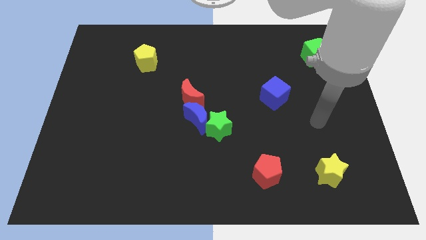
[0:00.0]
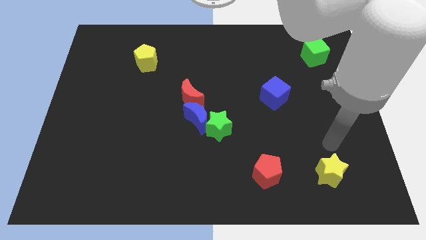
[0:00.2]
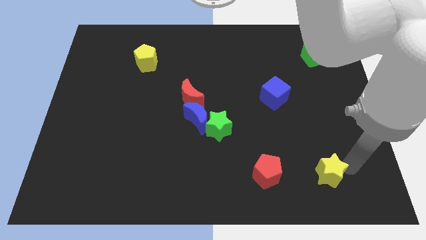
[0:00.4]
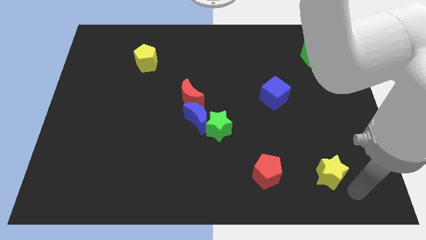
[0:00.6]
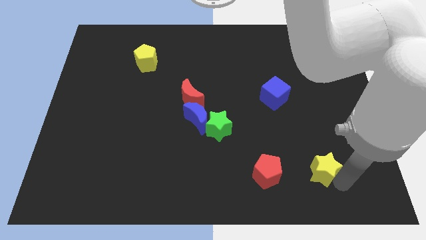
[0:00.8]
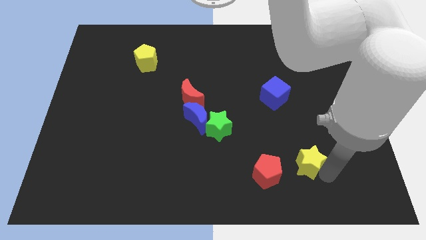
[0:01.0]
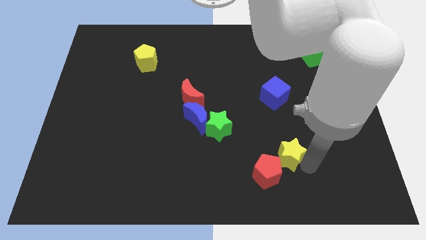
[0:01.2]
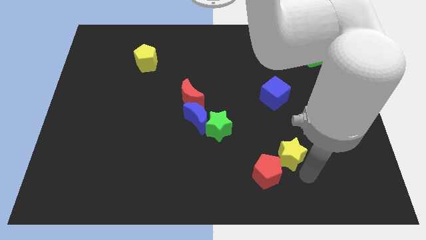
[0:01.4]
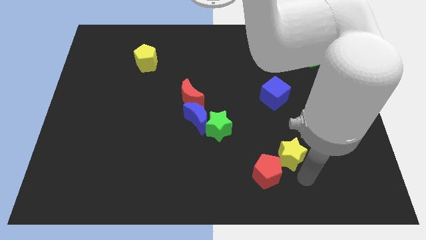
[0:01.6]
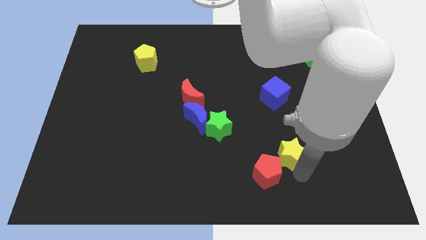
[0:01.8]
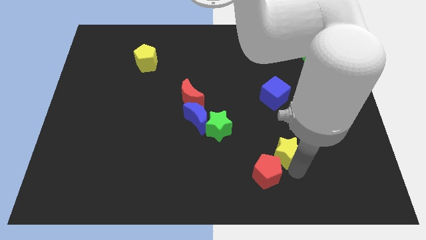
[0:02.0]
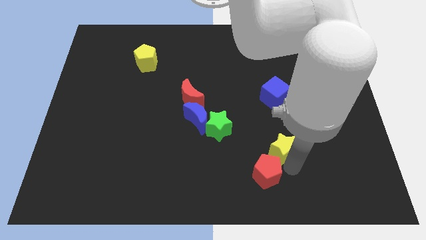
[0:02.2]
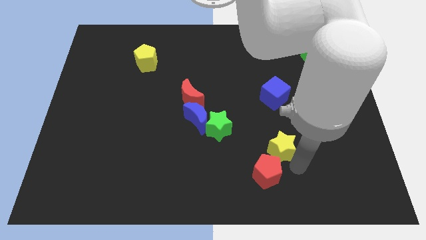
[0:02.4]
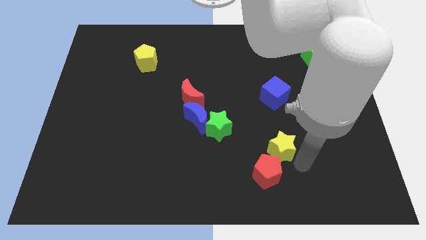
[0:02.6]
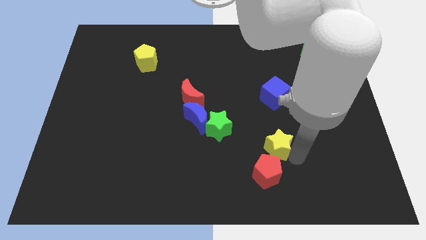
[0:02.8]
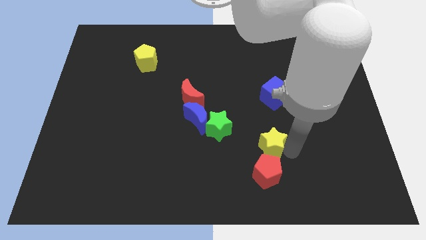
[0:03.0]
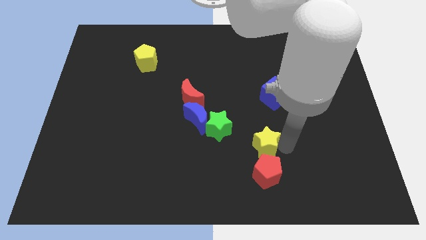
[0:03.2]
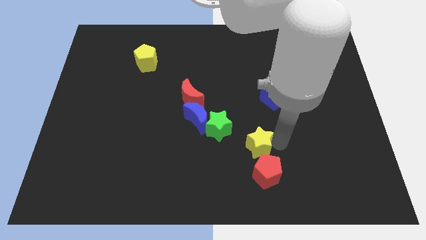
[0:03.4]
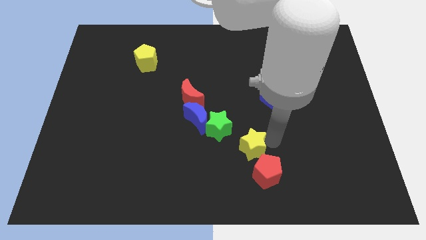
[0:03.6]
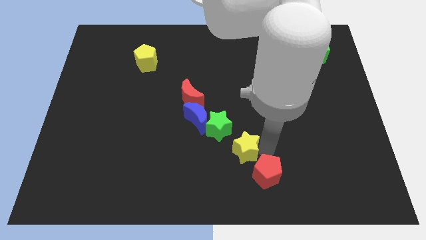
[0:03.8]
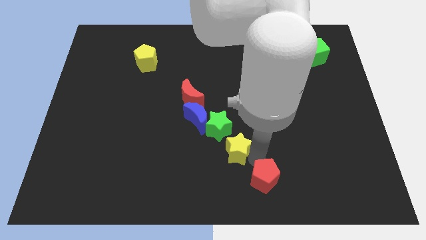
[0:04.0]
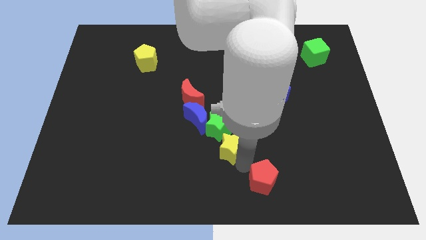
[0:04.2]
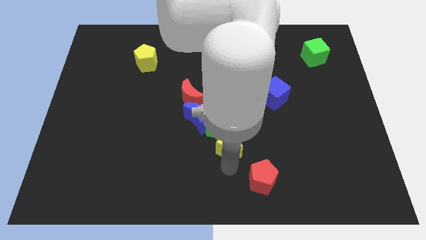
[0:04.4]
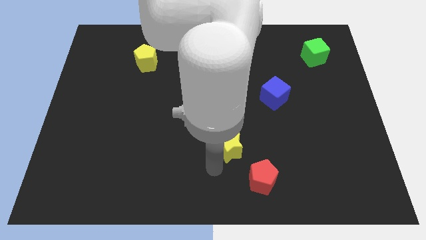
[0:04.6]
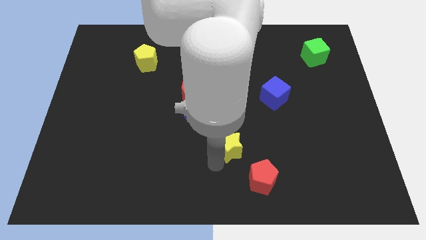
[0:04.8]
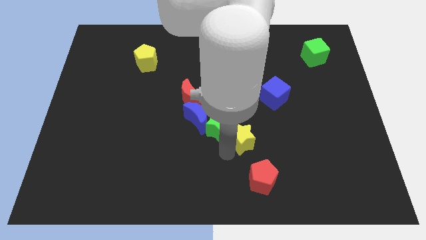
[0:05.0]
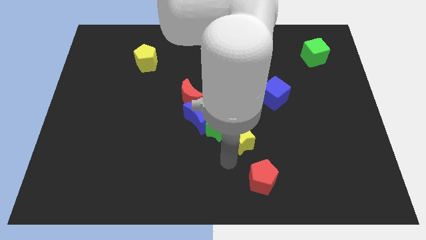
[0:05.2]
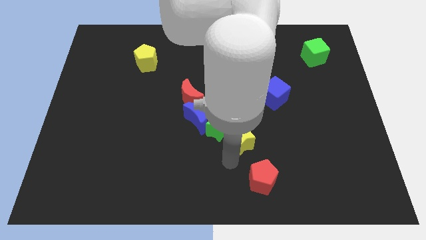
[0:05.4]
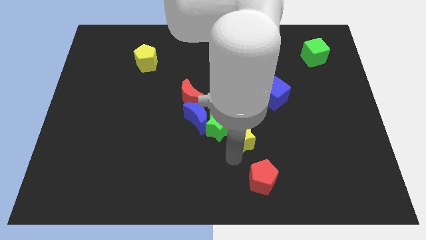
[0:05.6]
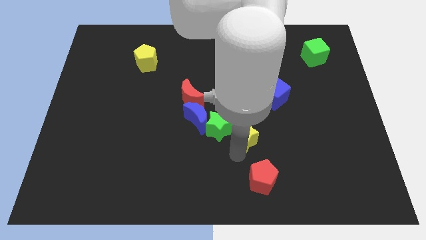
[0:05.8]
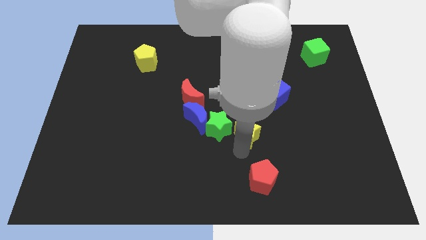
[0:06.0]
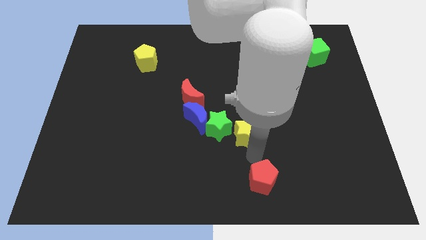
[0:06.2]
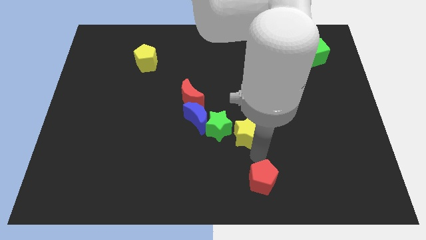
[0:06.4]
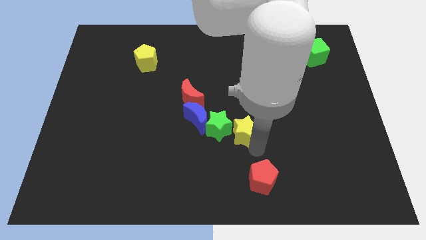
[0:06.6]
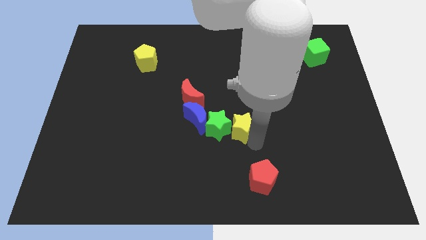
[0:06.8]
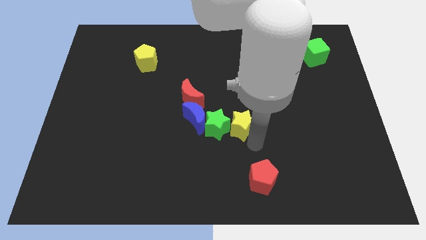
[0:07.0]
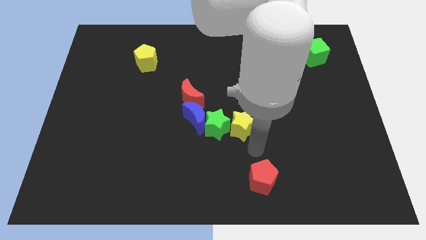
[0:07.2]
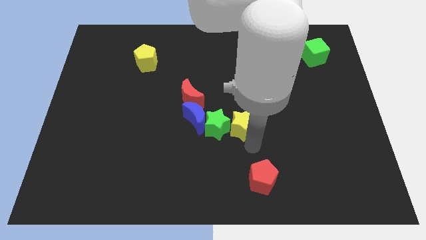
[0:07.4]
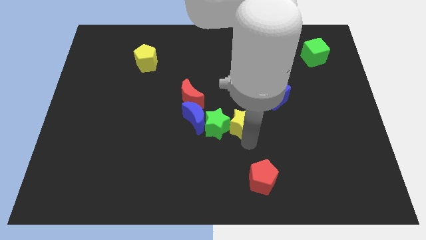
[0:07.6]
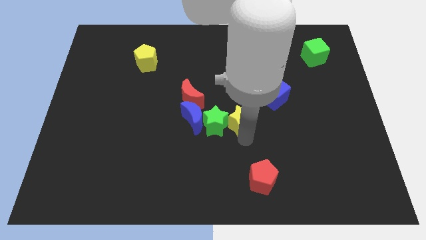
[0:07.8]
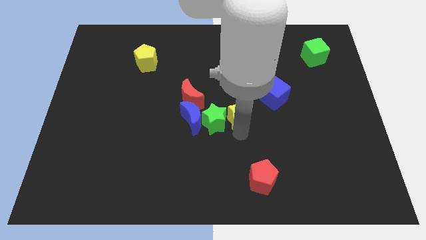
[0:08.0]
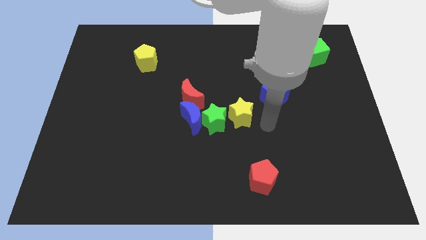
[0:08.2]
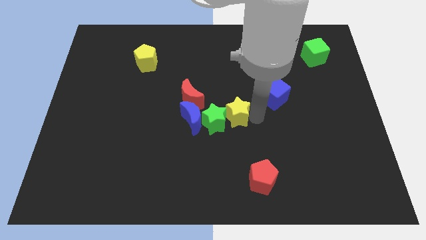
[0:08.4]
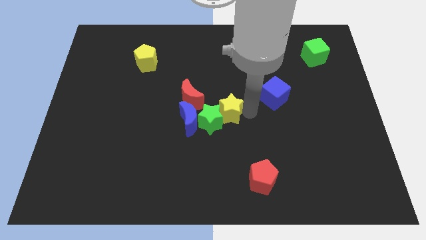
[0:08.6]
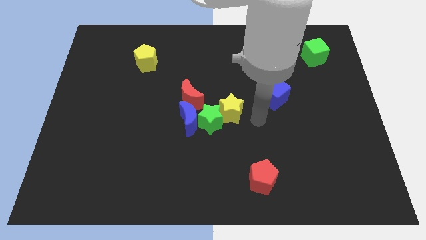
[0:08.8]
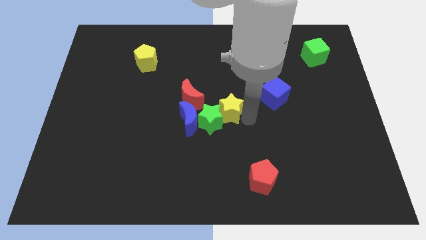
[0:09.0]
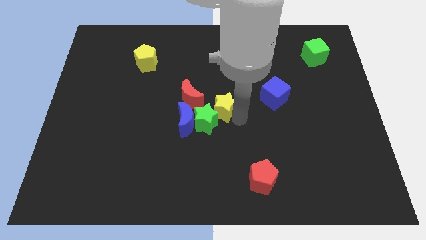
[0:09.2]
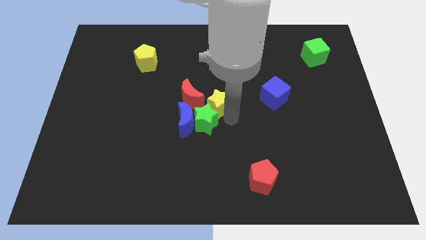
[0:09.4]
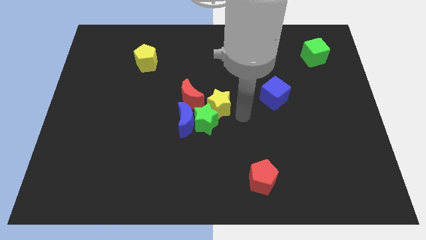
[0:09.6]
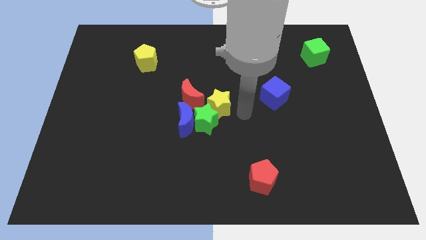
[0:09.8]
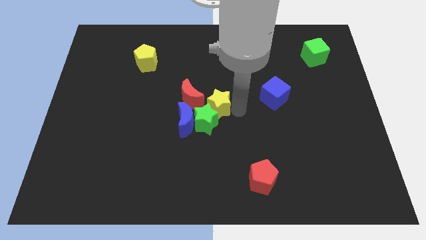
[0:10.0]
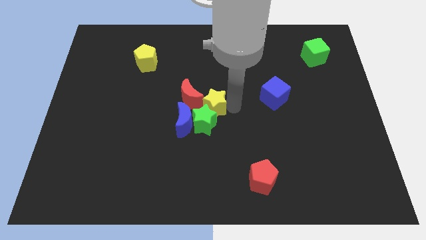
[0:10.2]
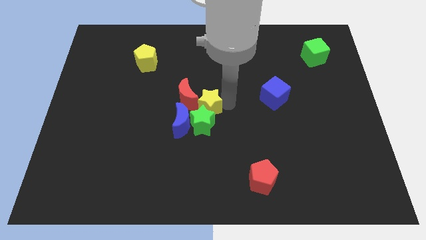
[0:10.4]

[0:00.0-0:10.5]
slide the yellow star next to the red moon

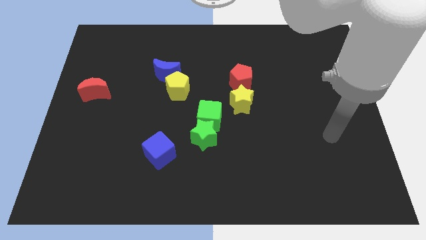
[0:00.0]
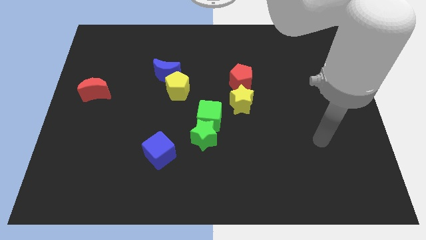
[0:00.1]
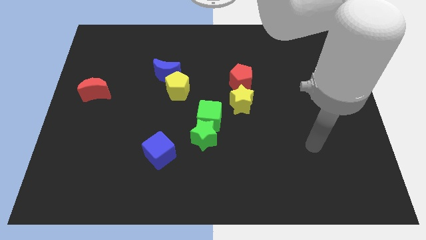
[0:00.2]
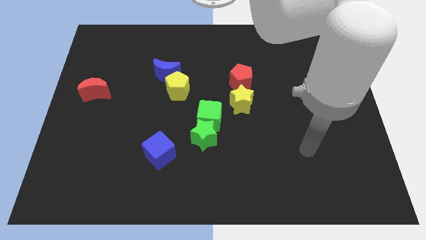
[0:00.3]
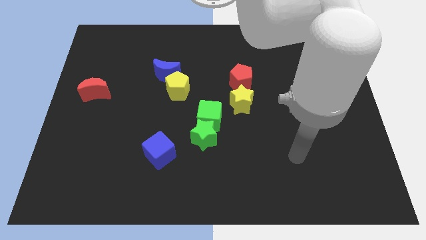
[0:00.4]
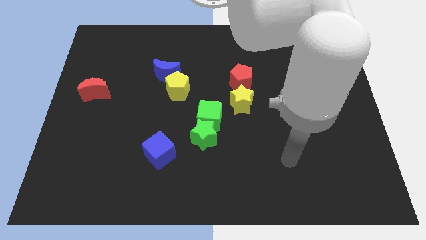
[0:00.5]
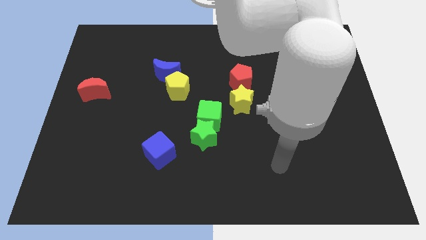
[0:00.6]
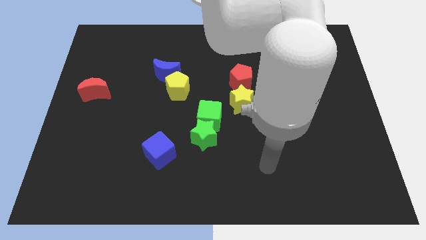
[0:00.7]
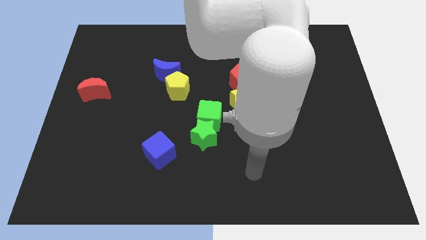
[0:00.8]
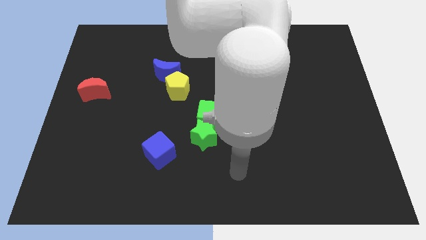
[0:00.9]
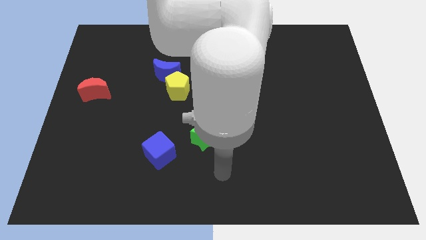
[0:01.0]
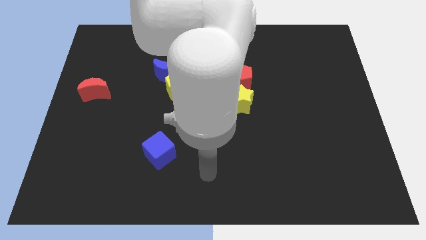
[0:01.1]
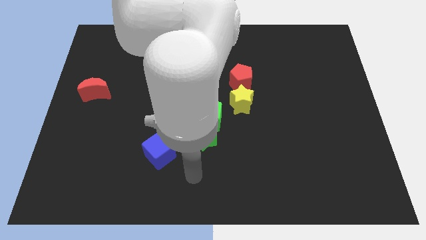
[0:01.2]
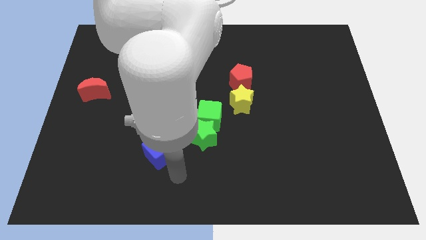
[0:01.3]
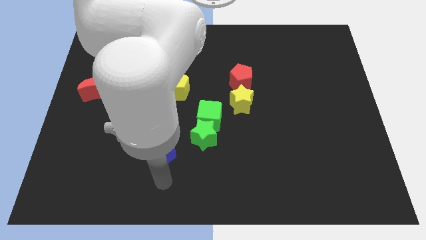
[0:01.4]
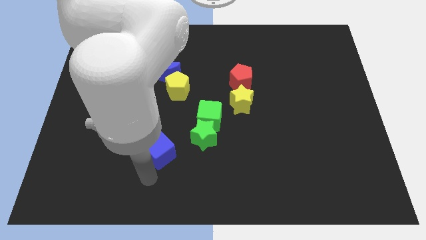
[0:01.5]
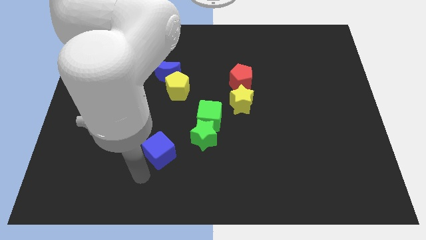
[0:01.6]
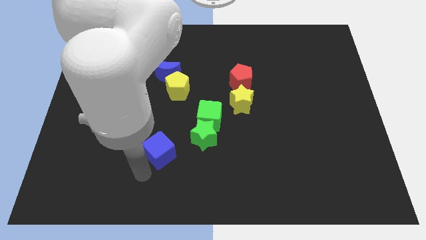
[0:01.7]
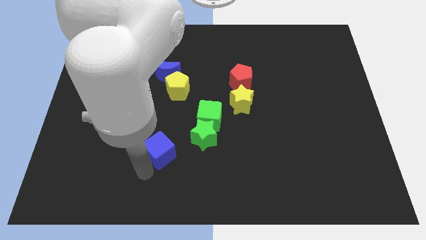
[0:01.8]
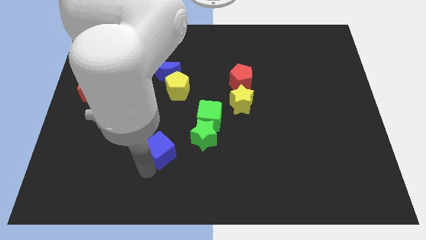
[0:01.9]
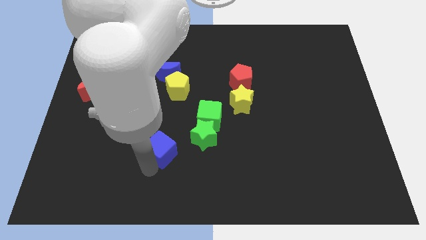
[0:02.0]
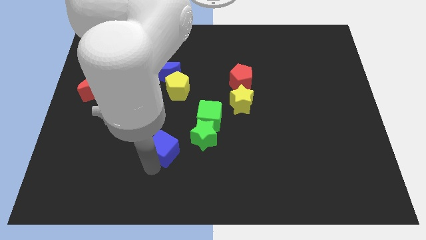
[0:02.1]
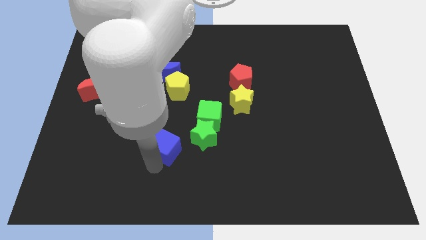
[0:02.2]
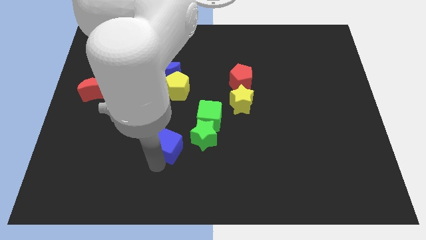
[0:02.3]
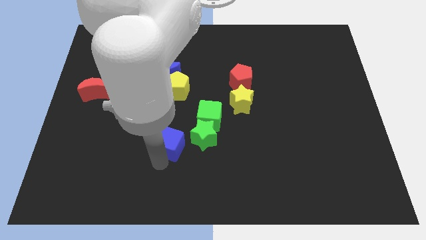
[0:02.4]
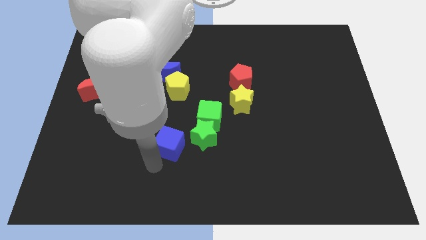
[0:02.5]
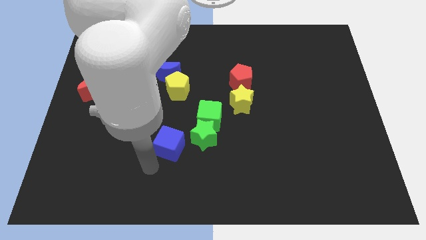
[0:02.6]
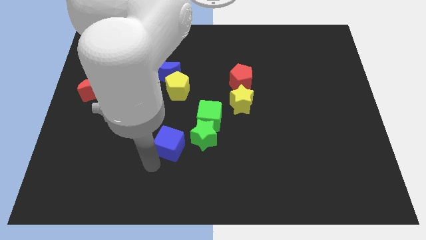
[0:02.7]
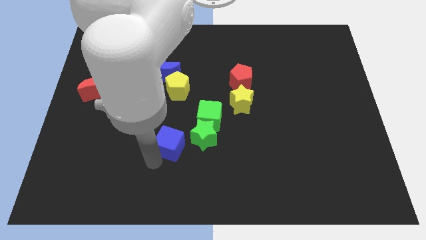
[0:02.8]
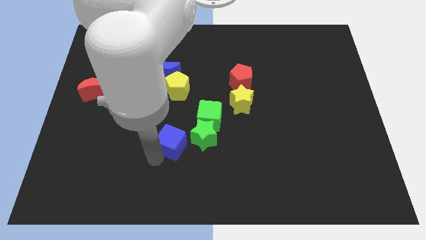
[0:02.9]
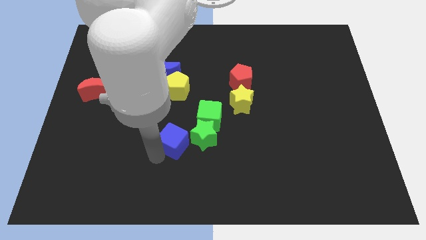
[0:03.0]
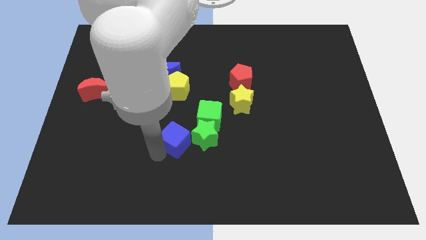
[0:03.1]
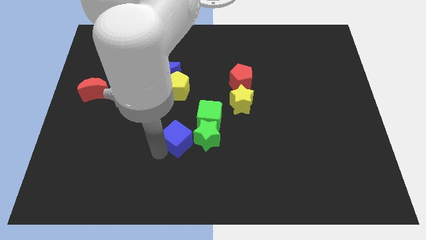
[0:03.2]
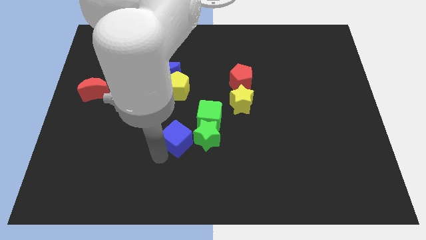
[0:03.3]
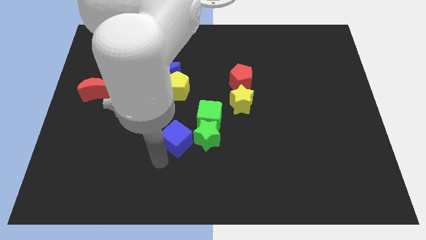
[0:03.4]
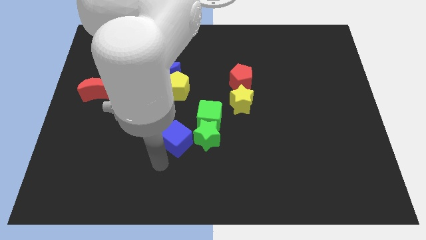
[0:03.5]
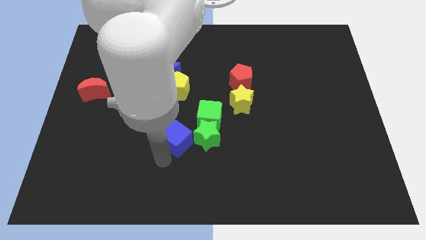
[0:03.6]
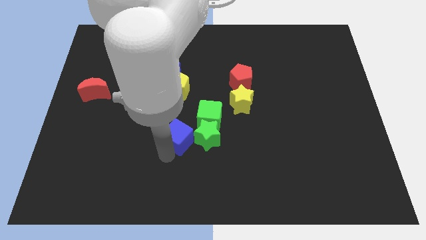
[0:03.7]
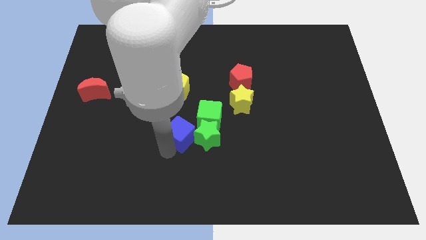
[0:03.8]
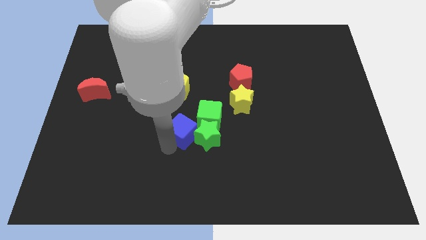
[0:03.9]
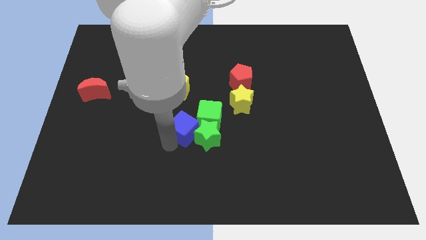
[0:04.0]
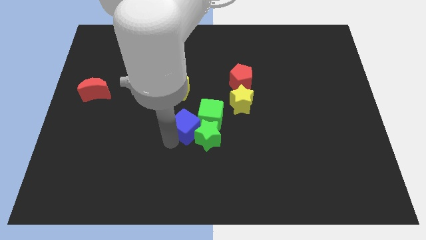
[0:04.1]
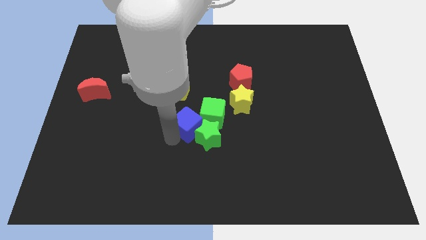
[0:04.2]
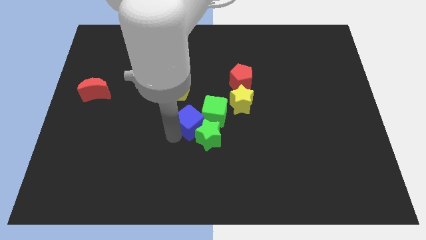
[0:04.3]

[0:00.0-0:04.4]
slide the blue cube to the green cube
